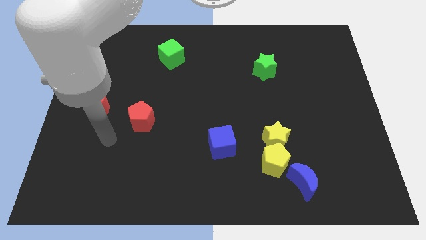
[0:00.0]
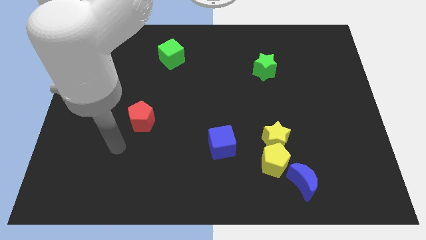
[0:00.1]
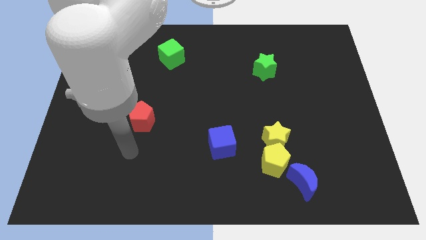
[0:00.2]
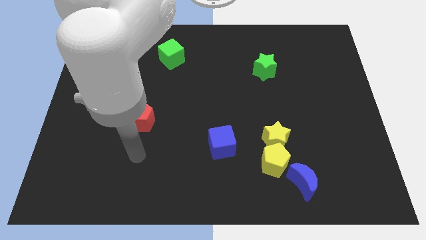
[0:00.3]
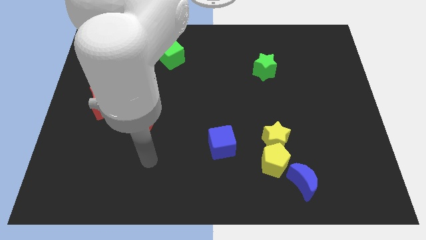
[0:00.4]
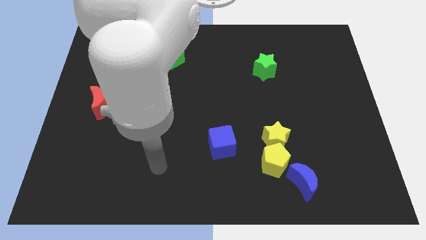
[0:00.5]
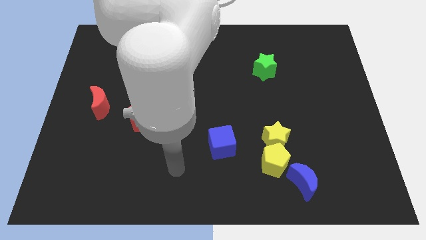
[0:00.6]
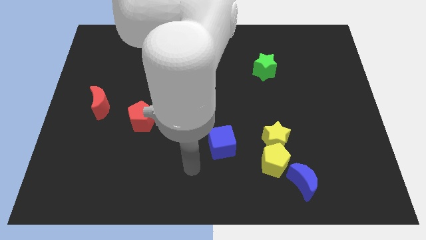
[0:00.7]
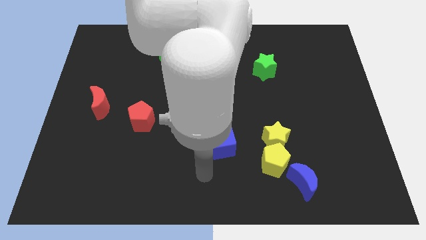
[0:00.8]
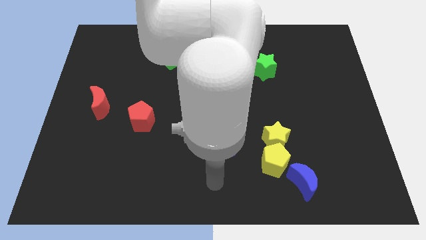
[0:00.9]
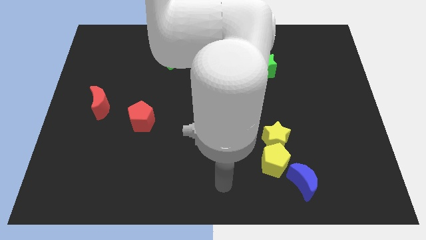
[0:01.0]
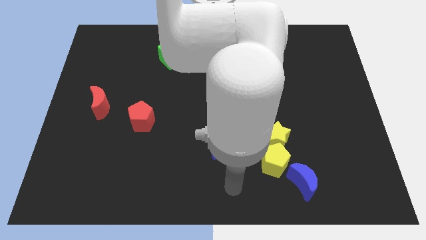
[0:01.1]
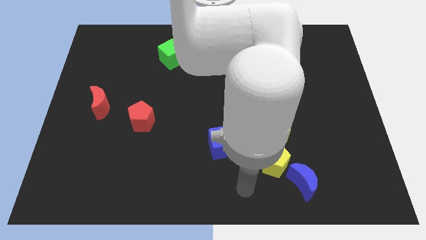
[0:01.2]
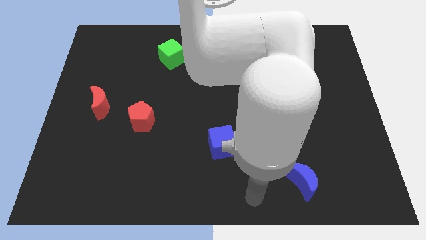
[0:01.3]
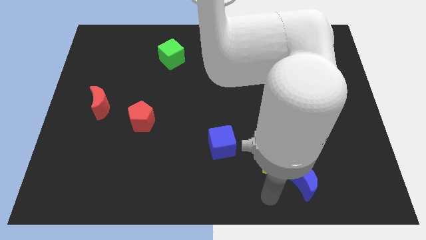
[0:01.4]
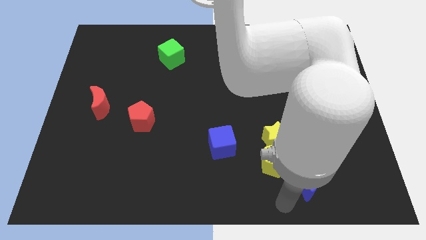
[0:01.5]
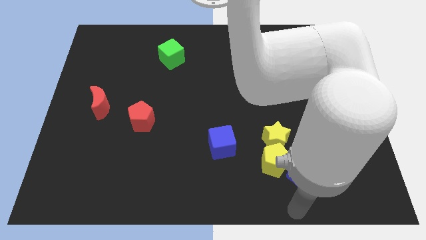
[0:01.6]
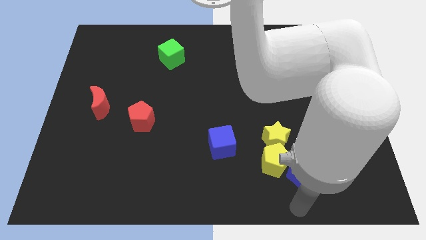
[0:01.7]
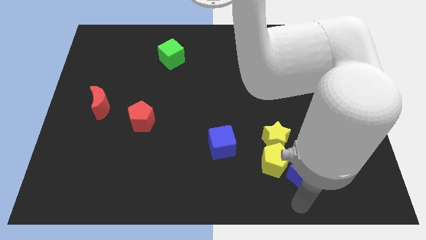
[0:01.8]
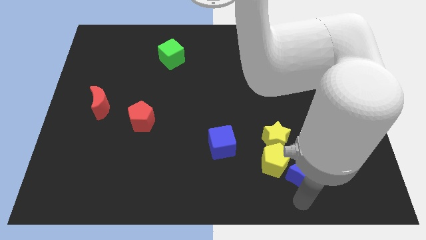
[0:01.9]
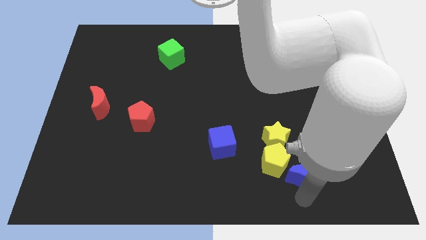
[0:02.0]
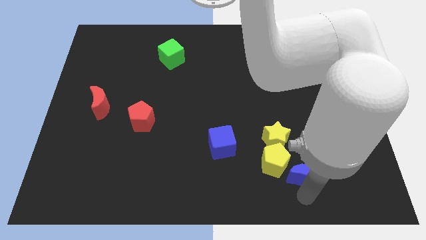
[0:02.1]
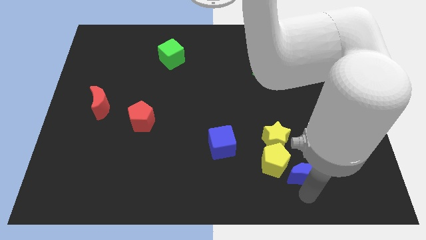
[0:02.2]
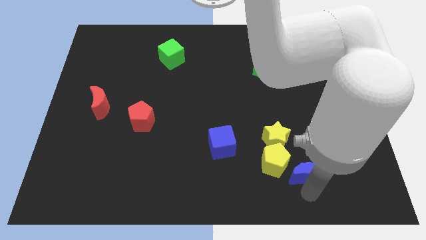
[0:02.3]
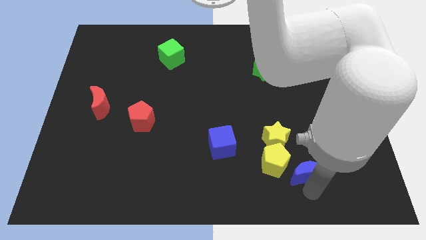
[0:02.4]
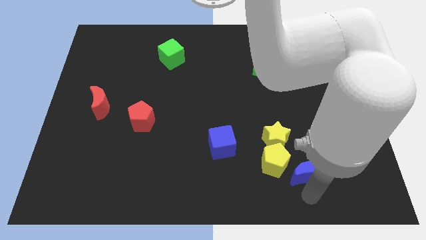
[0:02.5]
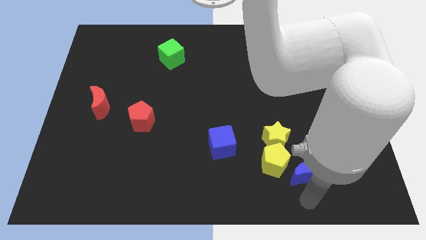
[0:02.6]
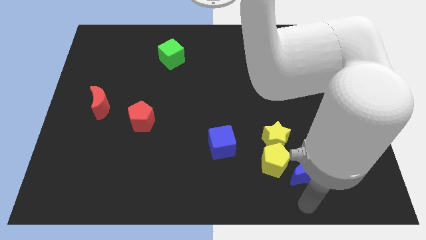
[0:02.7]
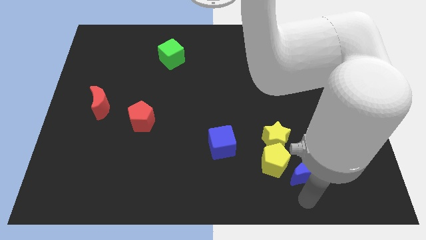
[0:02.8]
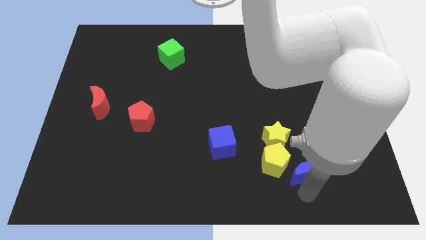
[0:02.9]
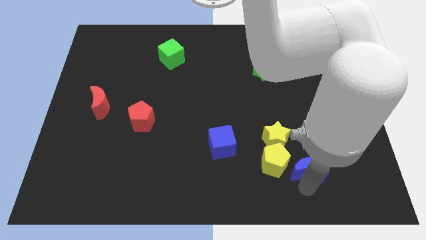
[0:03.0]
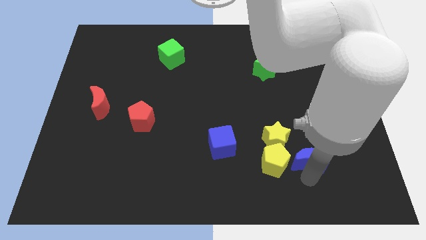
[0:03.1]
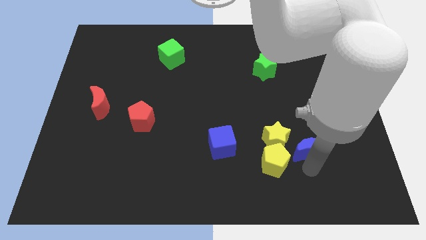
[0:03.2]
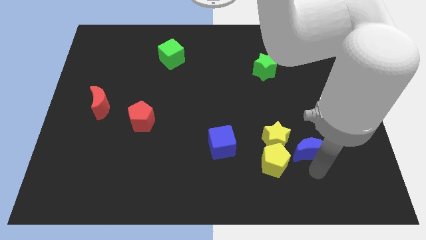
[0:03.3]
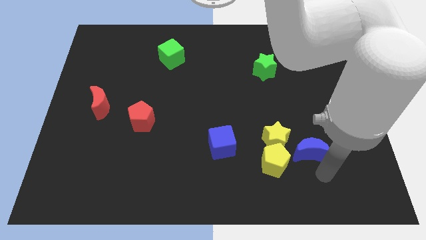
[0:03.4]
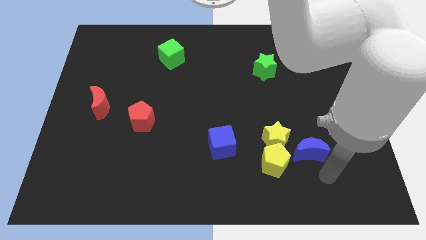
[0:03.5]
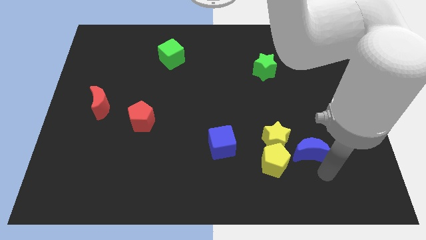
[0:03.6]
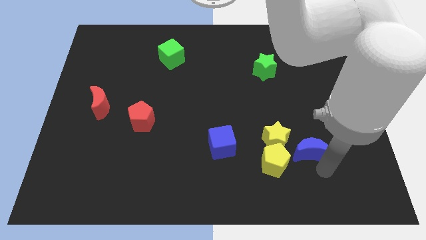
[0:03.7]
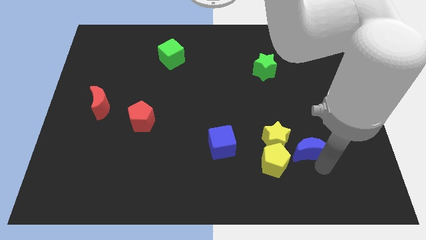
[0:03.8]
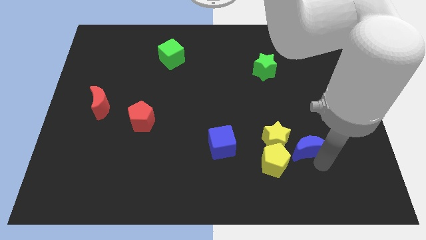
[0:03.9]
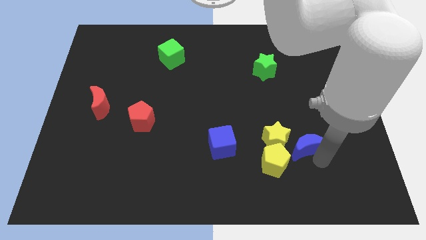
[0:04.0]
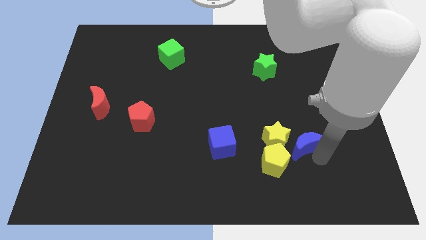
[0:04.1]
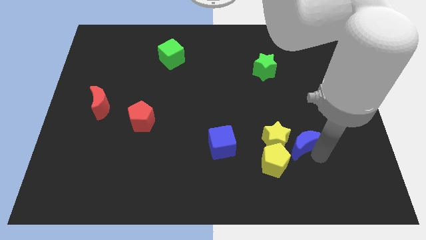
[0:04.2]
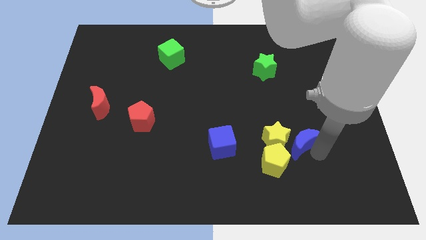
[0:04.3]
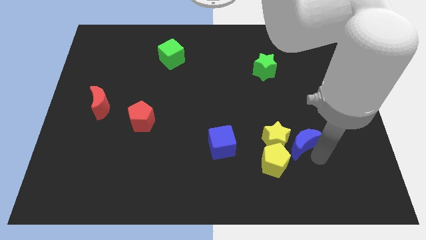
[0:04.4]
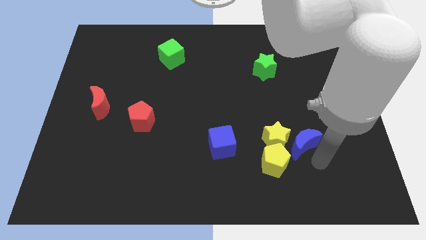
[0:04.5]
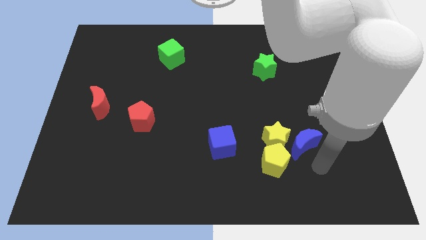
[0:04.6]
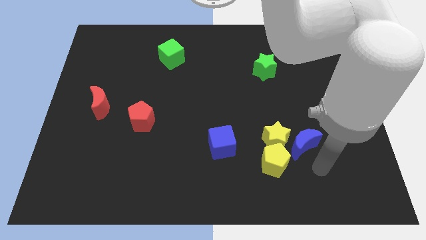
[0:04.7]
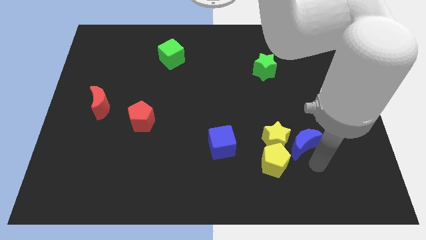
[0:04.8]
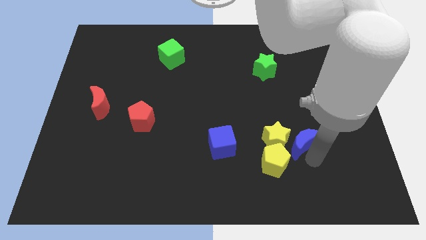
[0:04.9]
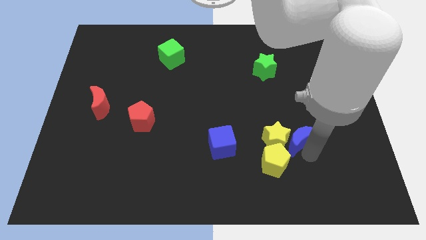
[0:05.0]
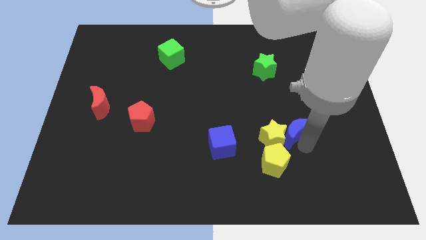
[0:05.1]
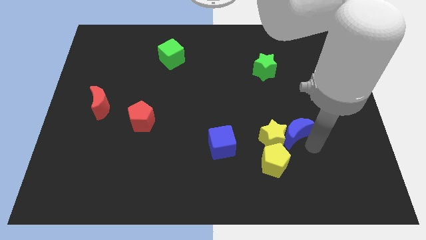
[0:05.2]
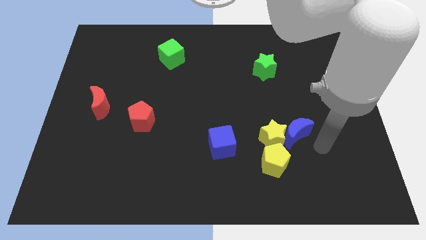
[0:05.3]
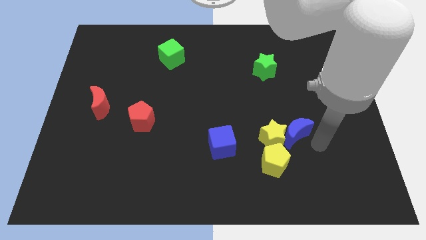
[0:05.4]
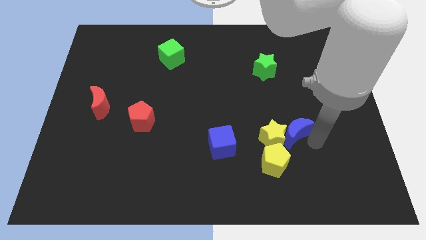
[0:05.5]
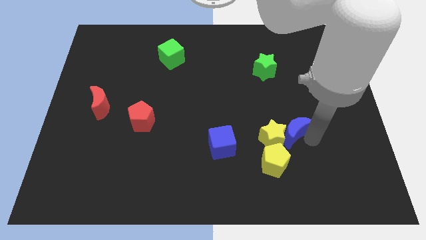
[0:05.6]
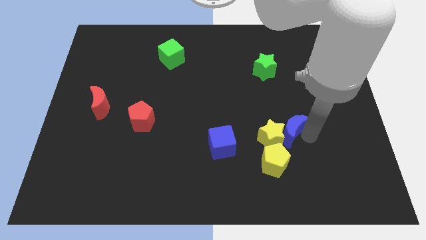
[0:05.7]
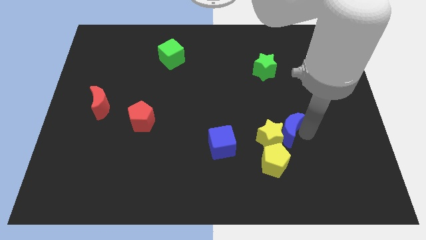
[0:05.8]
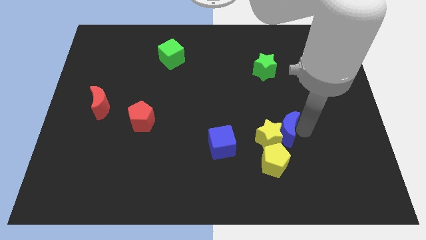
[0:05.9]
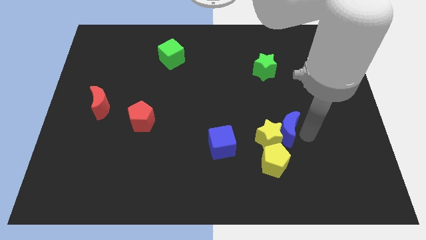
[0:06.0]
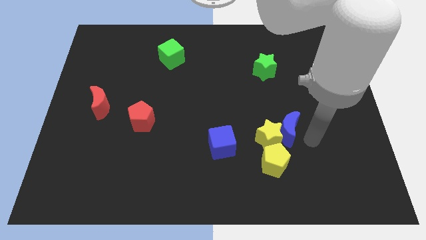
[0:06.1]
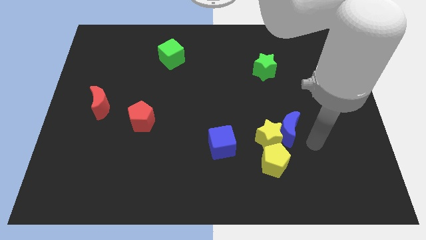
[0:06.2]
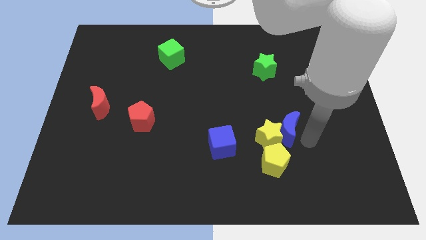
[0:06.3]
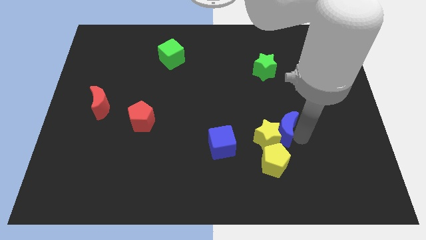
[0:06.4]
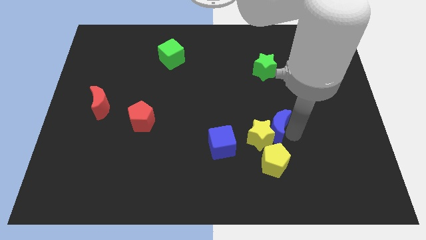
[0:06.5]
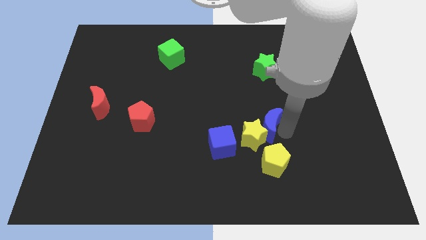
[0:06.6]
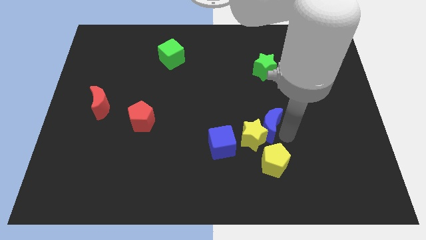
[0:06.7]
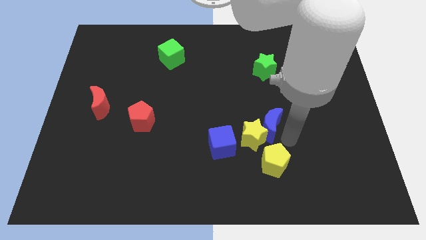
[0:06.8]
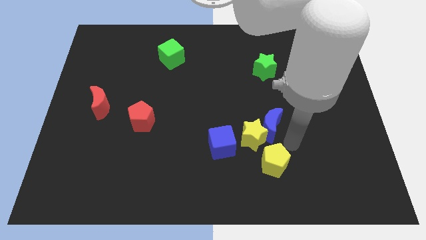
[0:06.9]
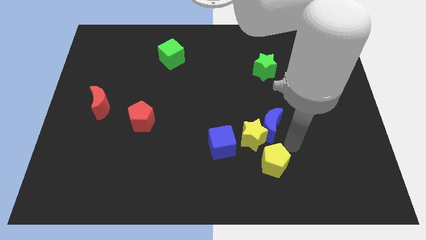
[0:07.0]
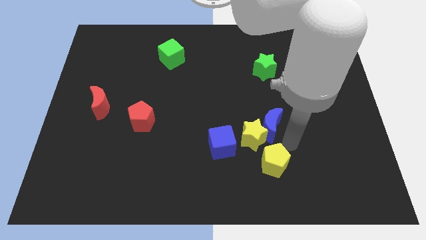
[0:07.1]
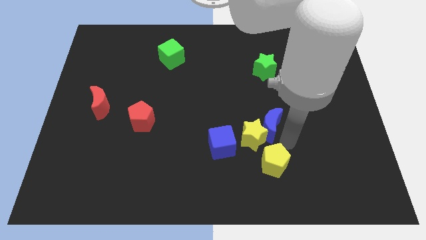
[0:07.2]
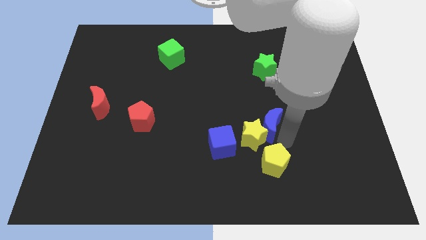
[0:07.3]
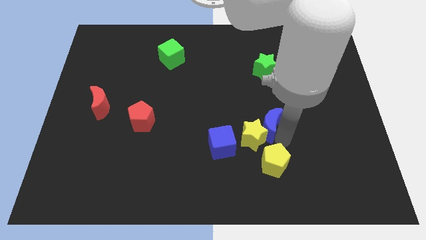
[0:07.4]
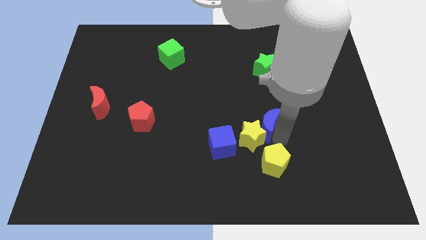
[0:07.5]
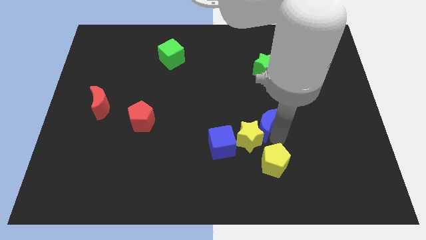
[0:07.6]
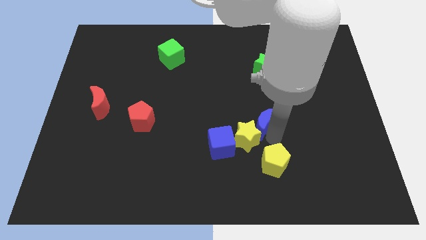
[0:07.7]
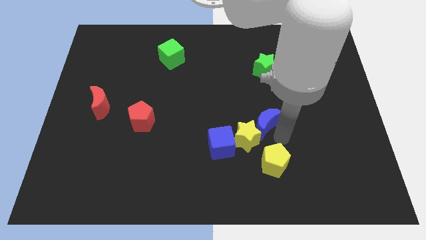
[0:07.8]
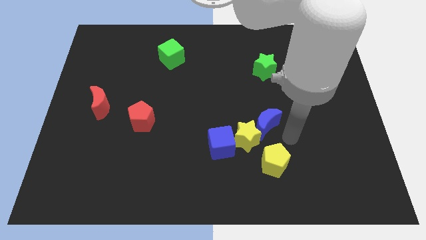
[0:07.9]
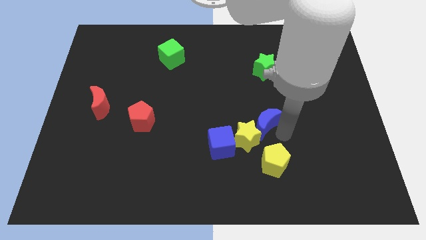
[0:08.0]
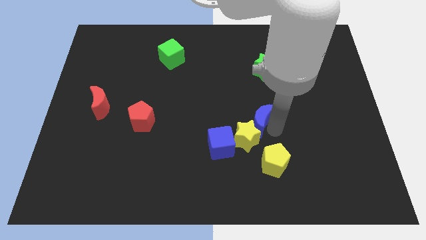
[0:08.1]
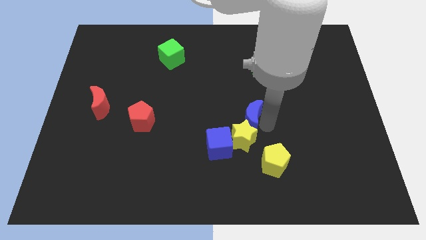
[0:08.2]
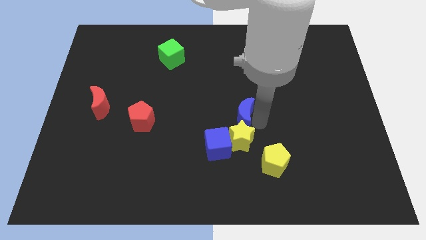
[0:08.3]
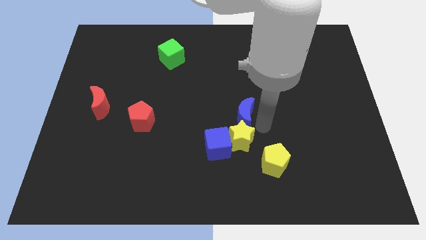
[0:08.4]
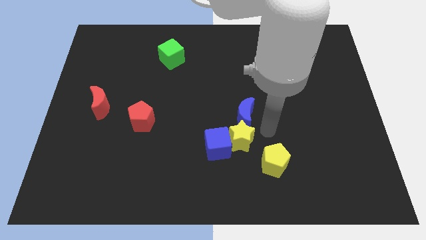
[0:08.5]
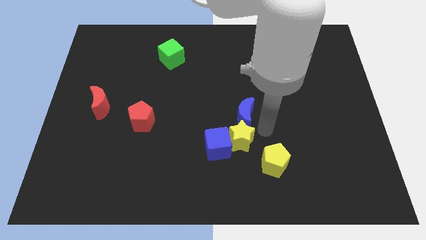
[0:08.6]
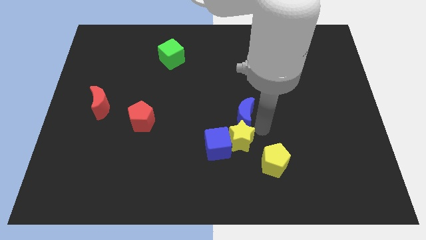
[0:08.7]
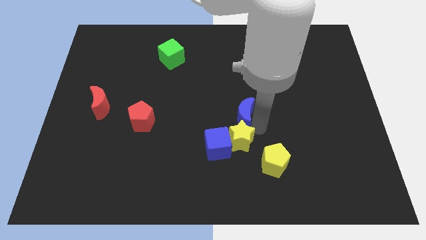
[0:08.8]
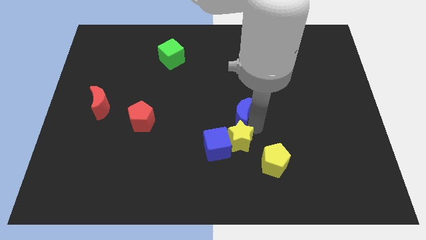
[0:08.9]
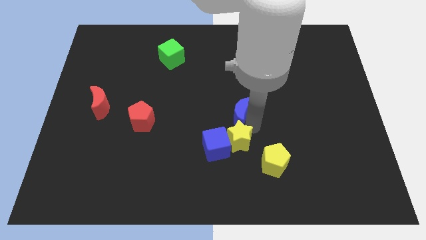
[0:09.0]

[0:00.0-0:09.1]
slide the blue moon upwards and left
